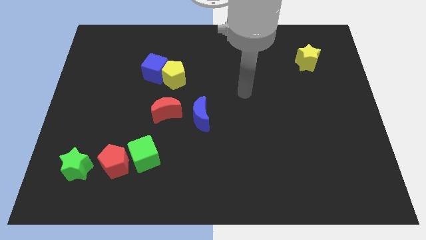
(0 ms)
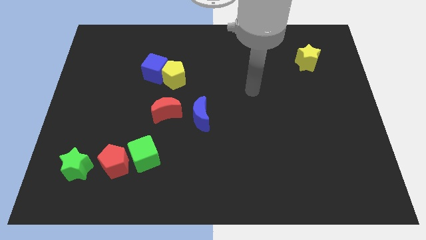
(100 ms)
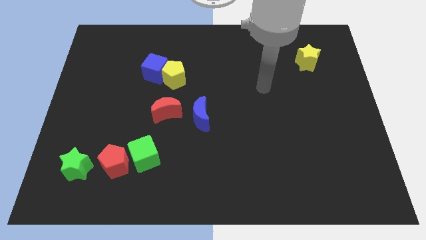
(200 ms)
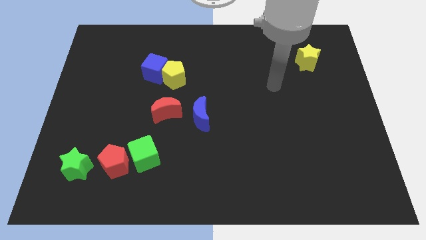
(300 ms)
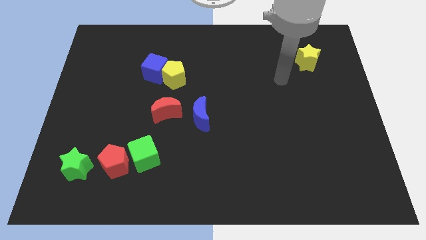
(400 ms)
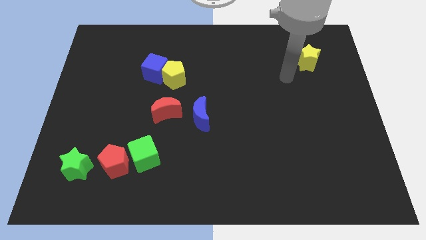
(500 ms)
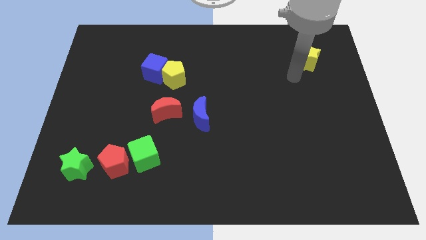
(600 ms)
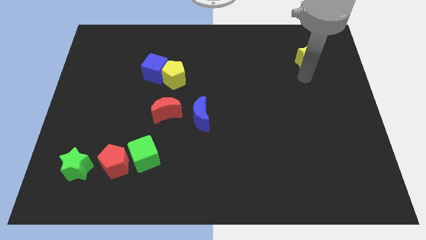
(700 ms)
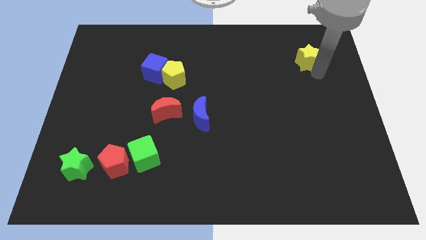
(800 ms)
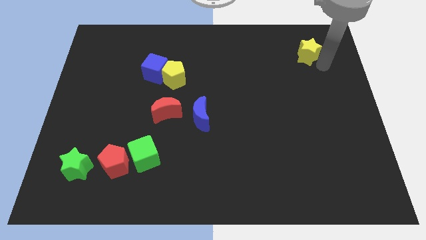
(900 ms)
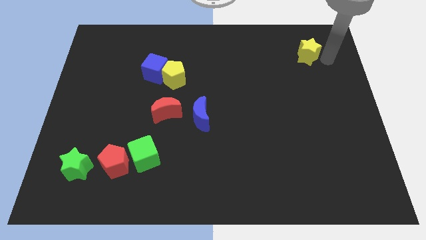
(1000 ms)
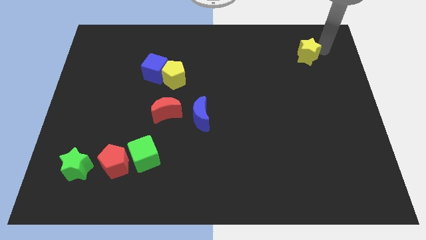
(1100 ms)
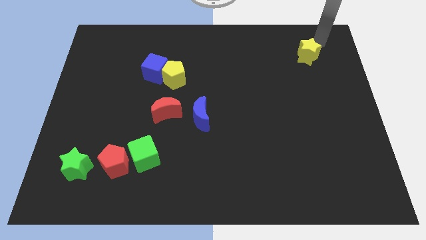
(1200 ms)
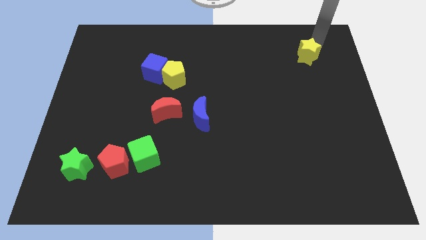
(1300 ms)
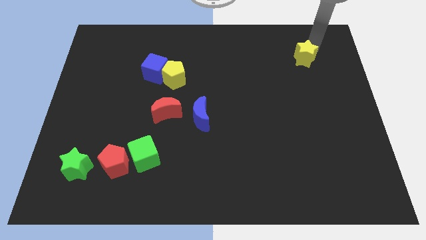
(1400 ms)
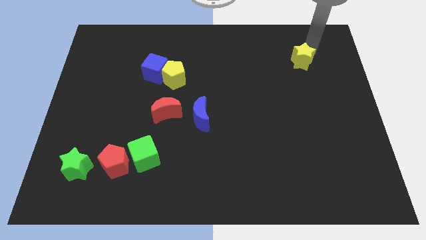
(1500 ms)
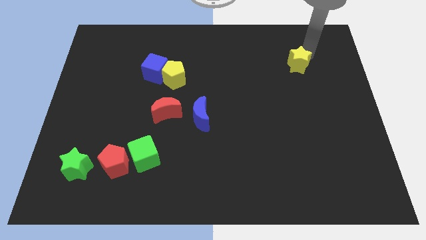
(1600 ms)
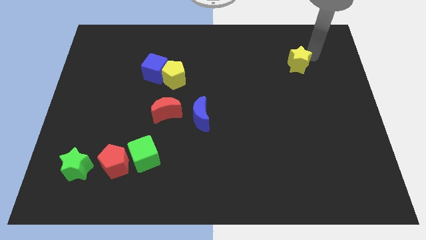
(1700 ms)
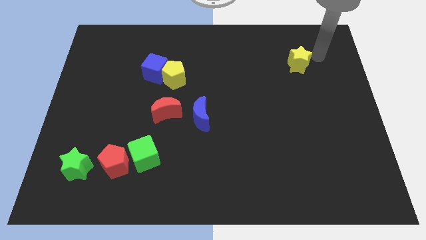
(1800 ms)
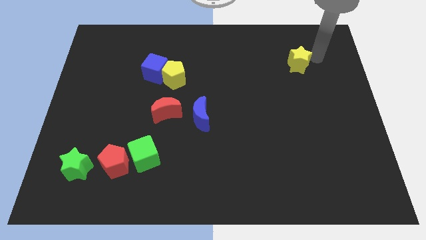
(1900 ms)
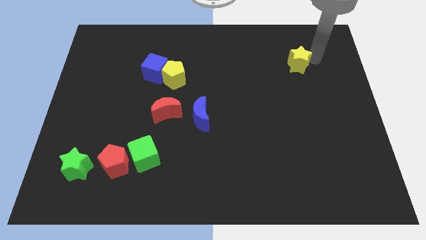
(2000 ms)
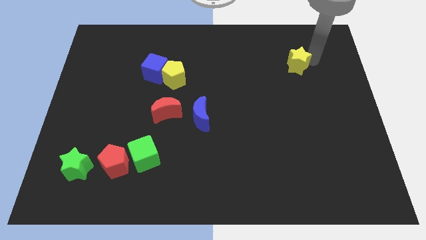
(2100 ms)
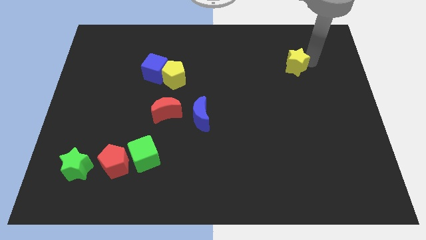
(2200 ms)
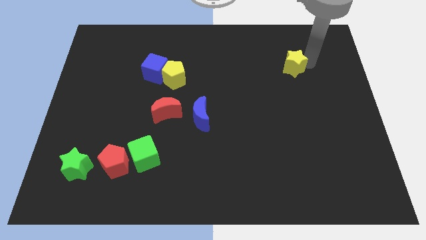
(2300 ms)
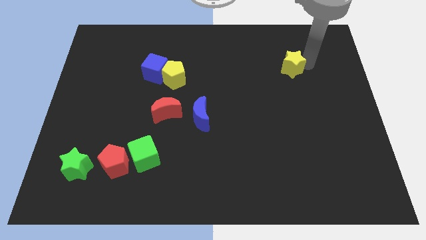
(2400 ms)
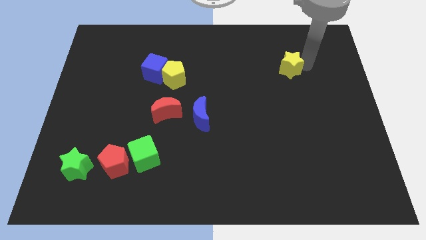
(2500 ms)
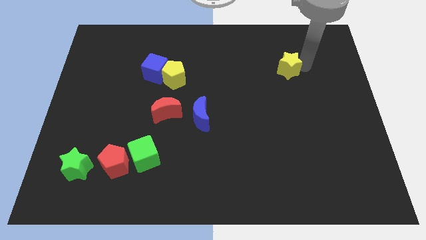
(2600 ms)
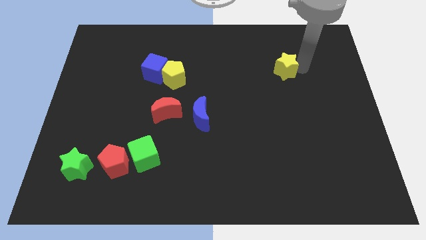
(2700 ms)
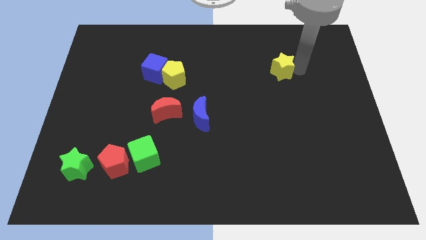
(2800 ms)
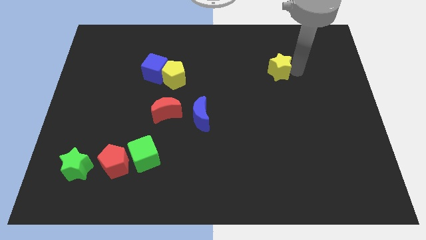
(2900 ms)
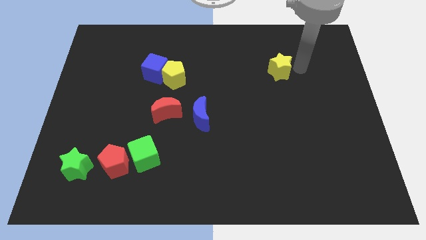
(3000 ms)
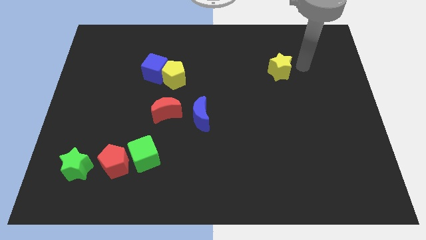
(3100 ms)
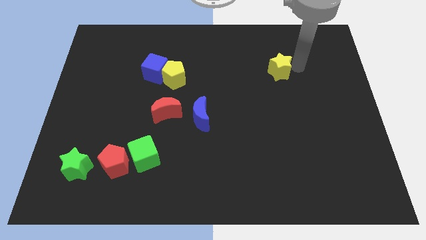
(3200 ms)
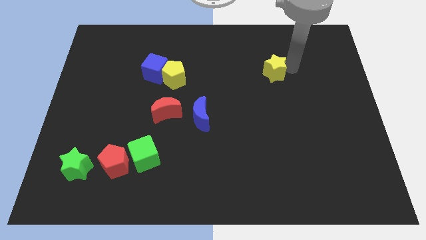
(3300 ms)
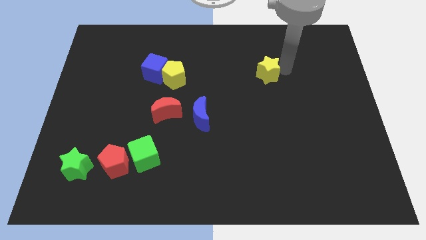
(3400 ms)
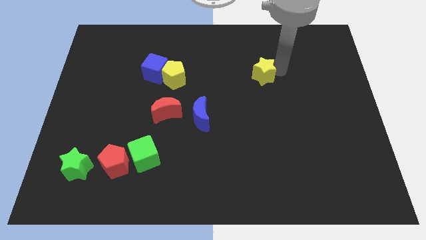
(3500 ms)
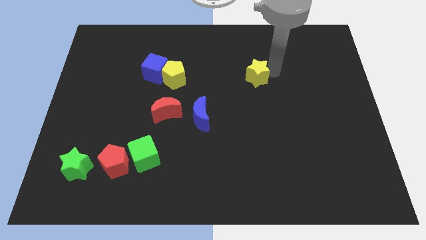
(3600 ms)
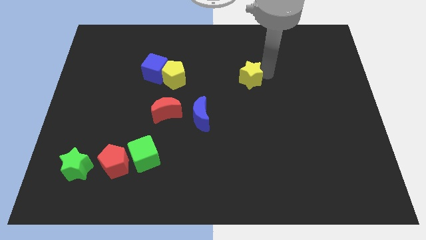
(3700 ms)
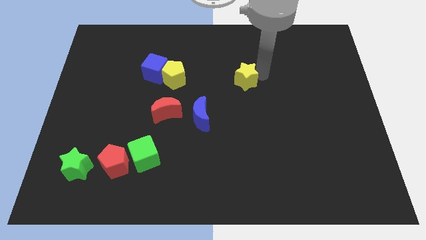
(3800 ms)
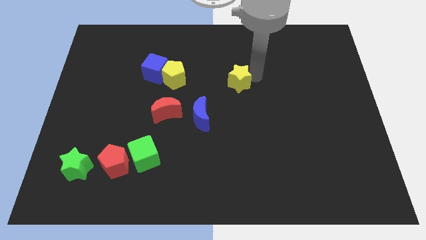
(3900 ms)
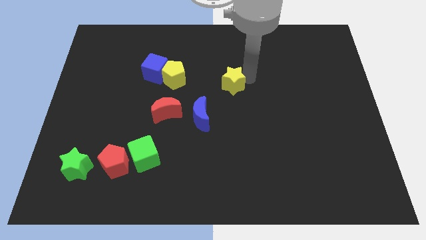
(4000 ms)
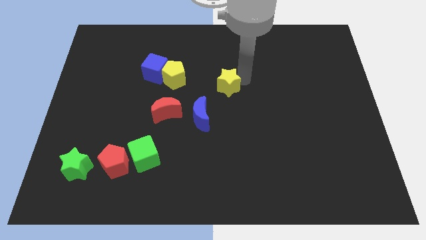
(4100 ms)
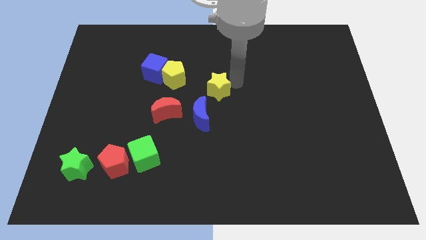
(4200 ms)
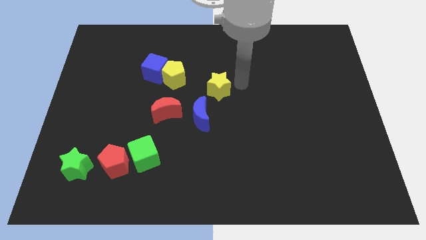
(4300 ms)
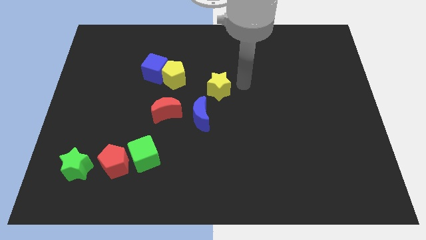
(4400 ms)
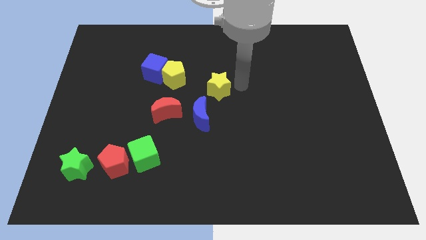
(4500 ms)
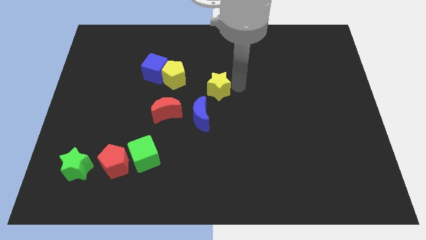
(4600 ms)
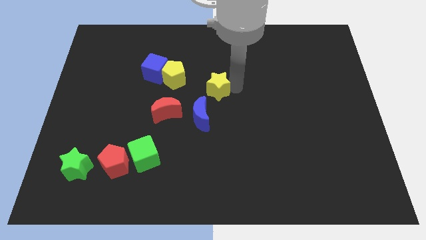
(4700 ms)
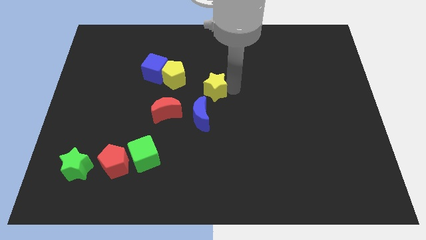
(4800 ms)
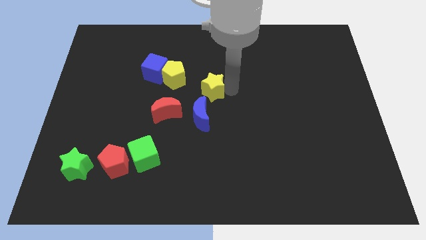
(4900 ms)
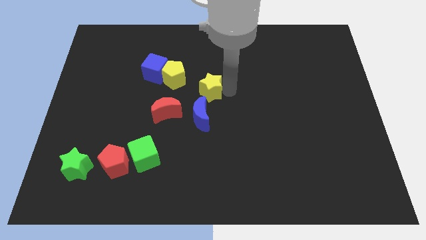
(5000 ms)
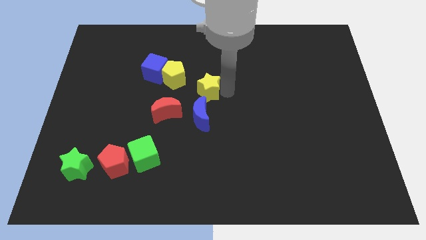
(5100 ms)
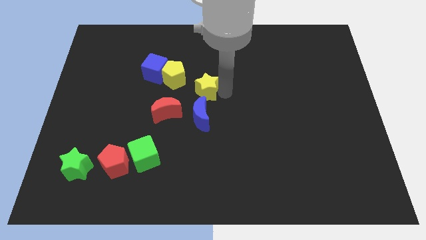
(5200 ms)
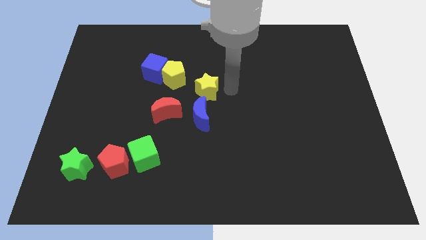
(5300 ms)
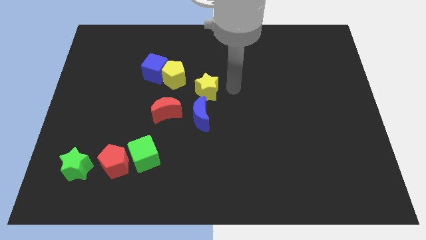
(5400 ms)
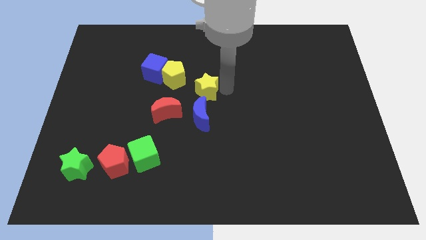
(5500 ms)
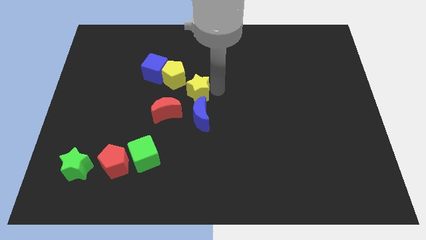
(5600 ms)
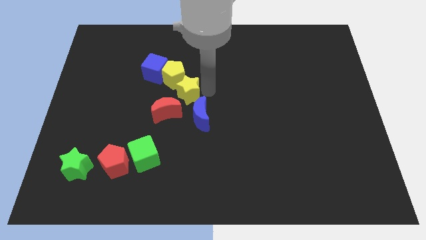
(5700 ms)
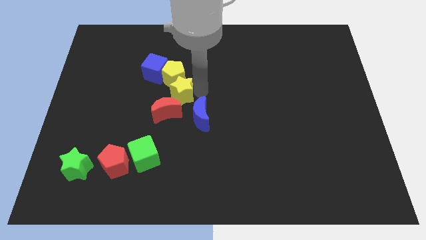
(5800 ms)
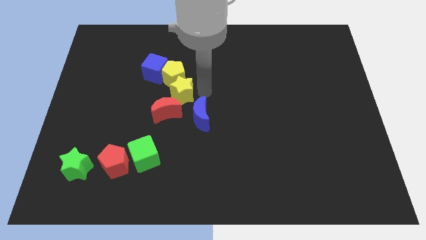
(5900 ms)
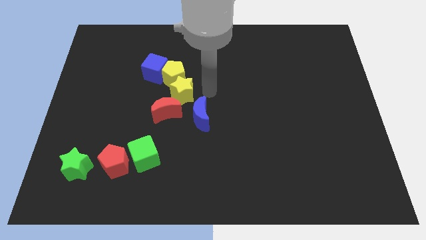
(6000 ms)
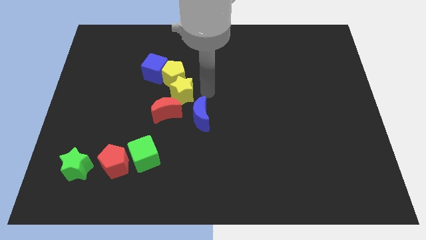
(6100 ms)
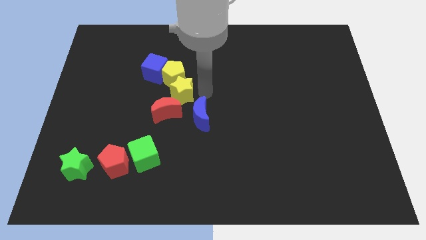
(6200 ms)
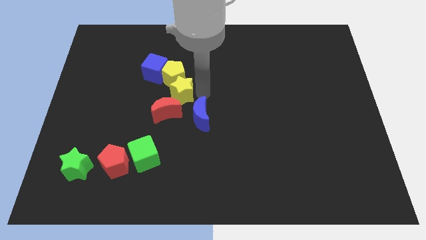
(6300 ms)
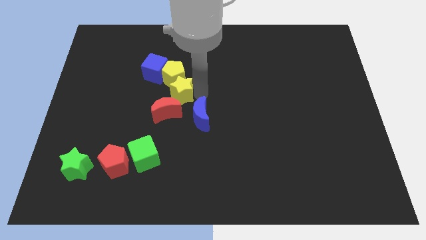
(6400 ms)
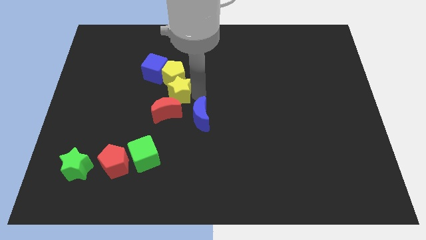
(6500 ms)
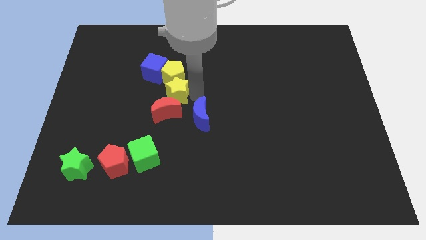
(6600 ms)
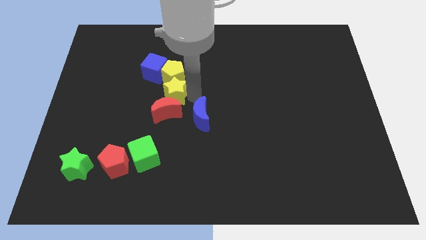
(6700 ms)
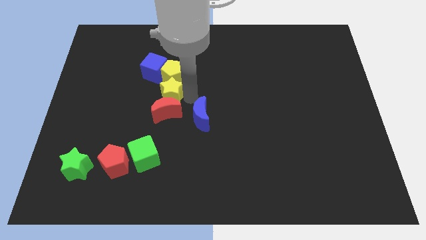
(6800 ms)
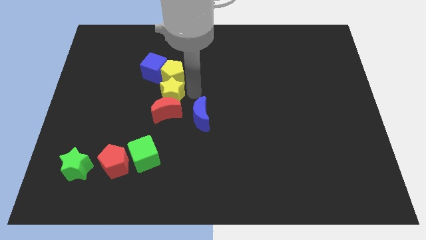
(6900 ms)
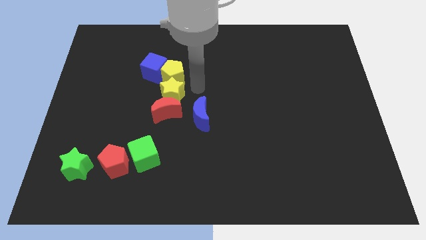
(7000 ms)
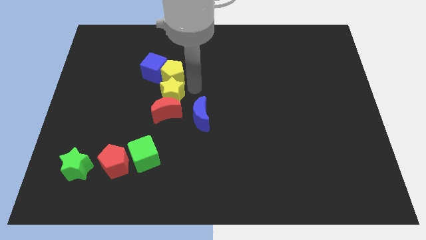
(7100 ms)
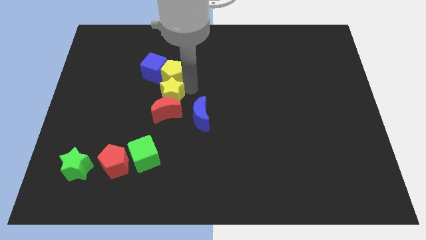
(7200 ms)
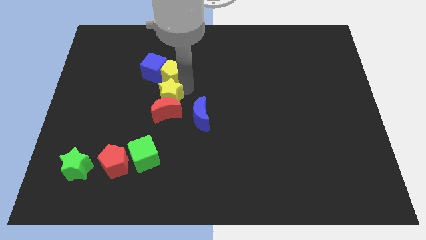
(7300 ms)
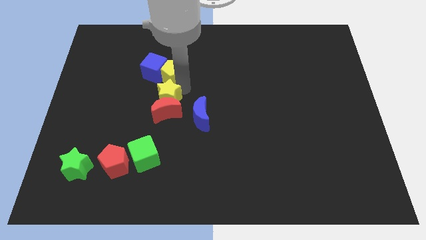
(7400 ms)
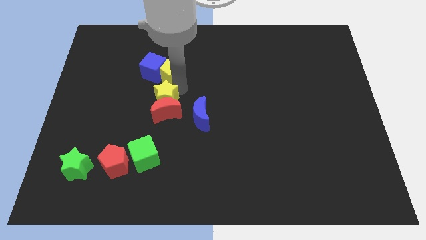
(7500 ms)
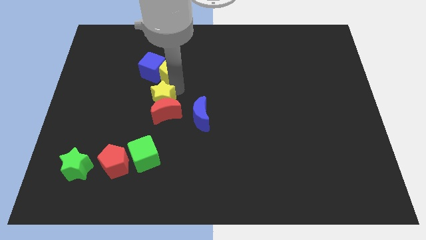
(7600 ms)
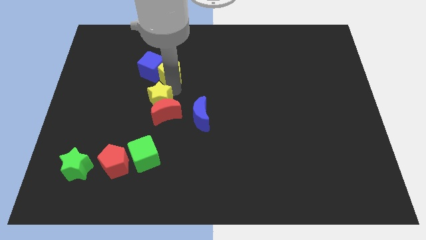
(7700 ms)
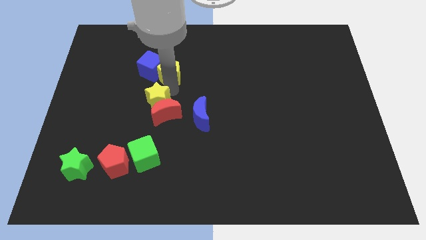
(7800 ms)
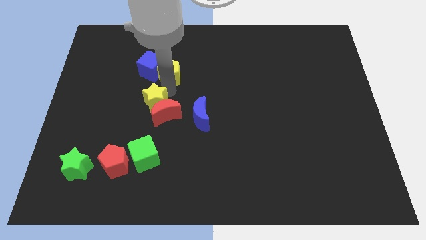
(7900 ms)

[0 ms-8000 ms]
push the yellow star left of the red moon
